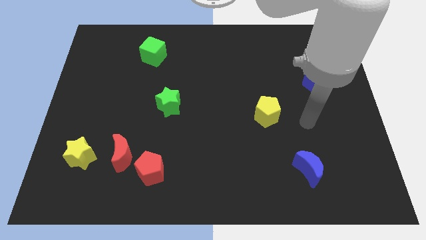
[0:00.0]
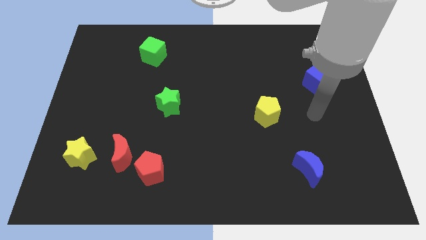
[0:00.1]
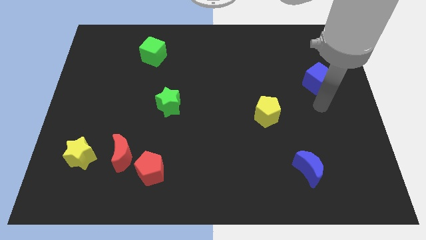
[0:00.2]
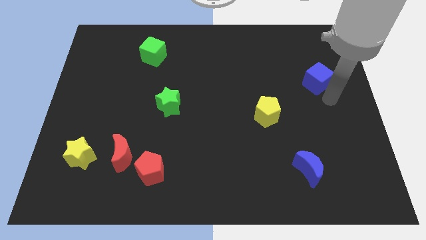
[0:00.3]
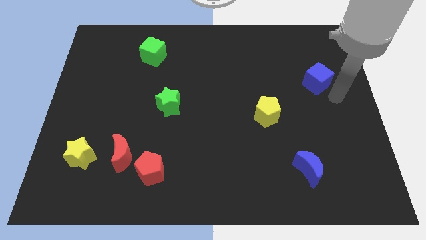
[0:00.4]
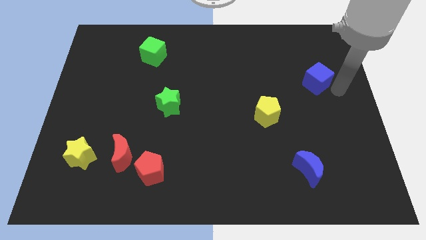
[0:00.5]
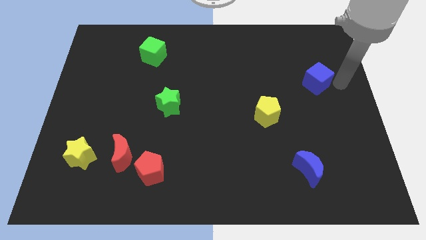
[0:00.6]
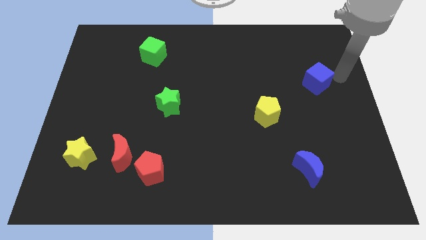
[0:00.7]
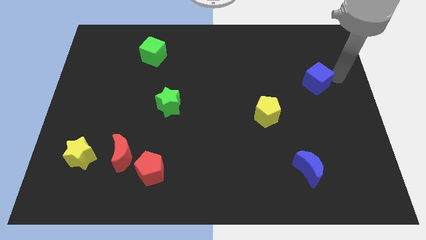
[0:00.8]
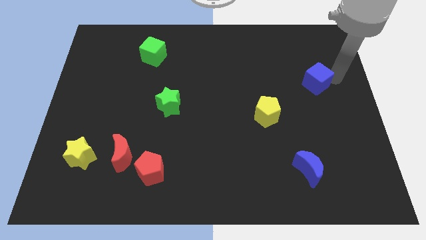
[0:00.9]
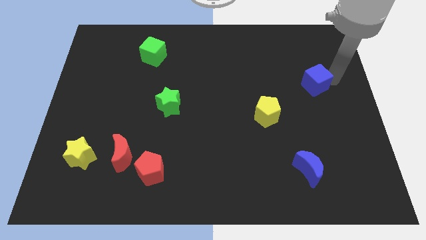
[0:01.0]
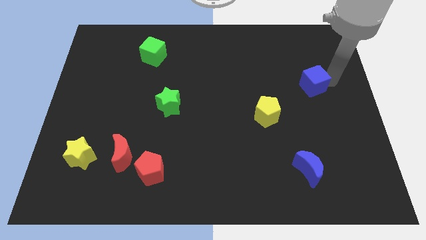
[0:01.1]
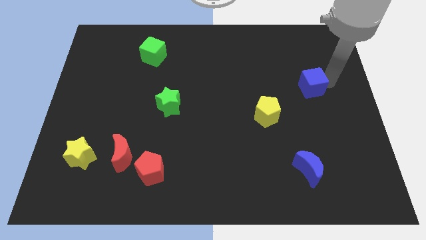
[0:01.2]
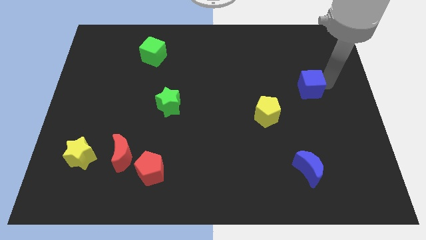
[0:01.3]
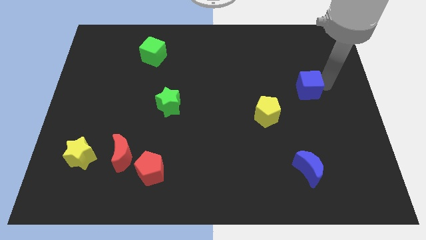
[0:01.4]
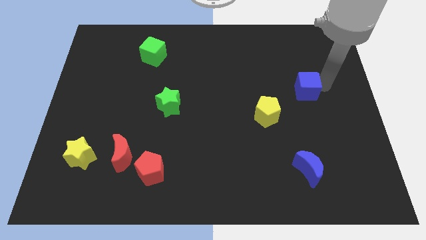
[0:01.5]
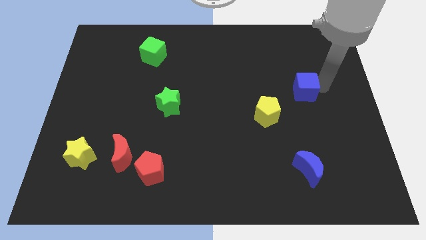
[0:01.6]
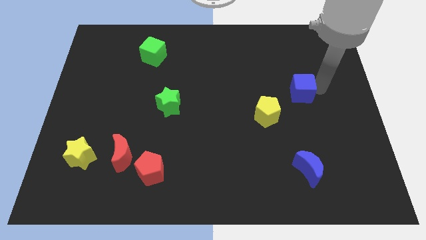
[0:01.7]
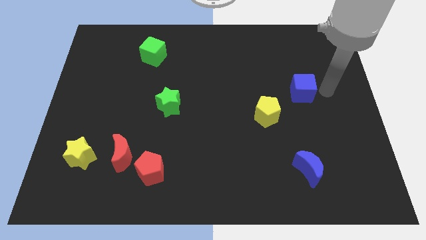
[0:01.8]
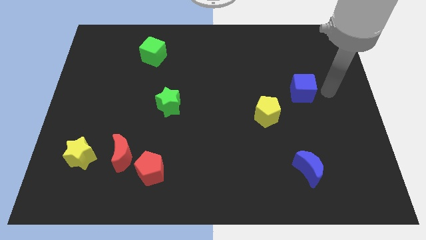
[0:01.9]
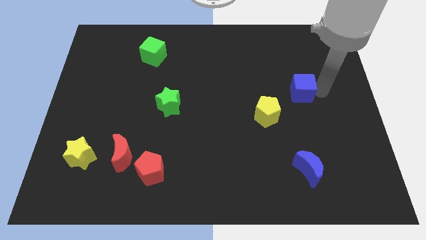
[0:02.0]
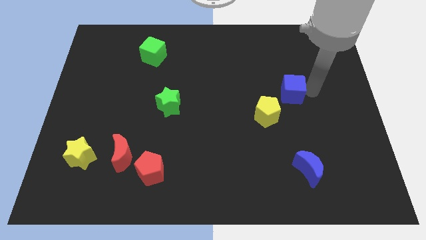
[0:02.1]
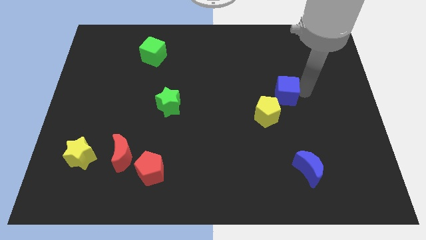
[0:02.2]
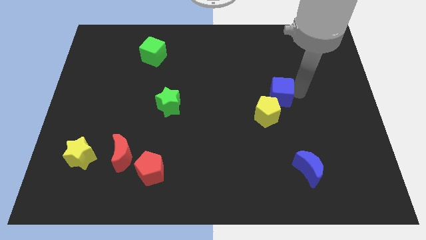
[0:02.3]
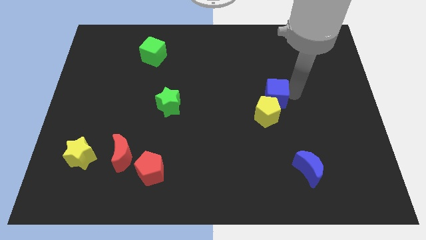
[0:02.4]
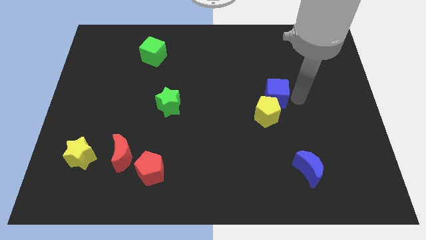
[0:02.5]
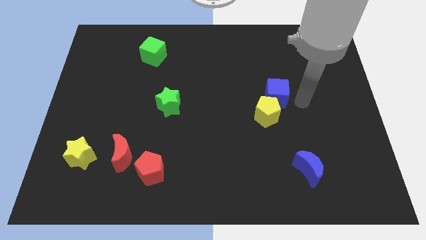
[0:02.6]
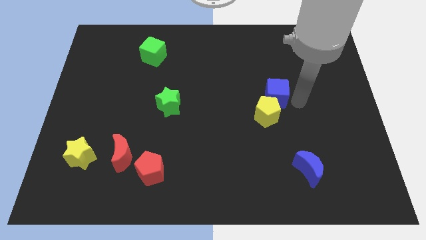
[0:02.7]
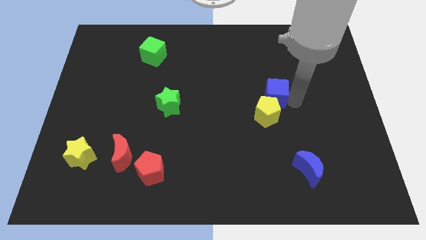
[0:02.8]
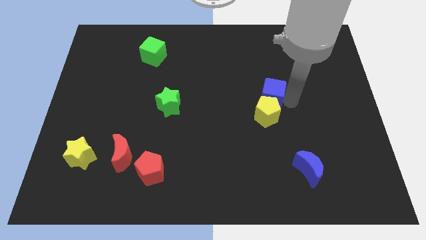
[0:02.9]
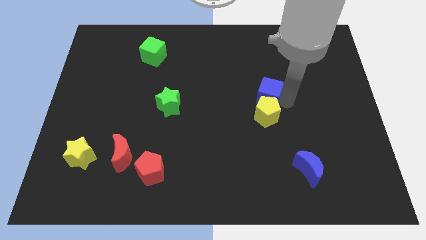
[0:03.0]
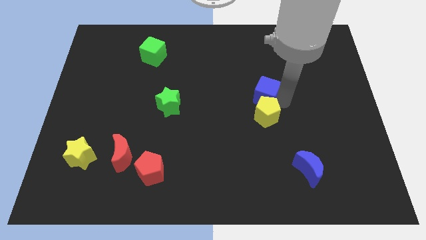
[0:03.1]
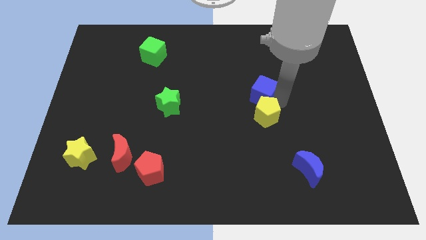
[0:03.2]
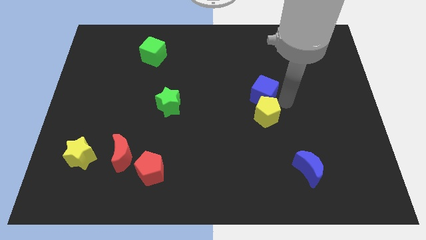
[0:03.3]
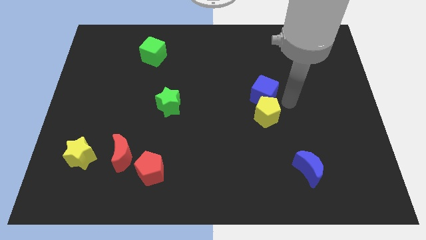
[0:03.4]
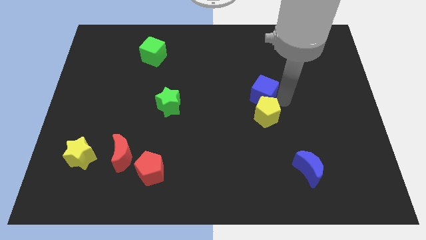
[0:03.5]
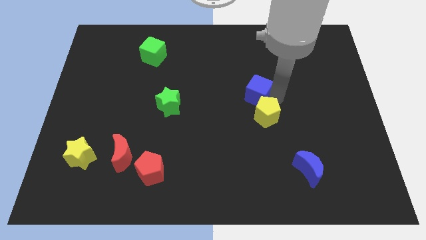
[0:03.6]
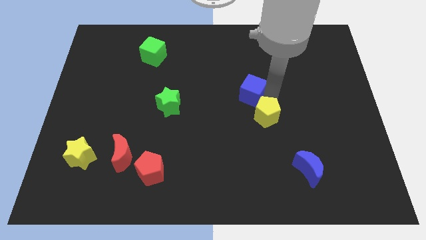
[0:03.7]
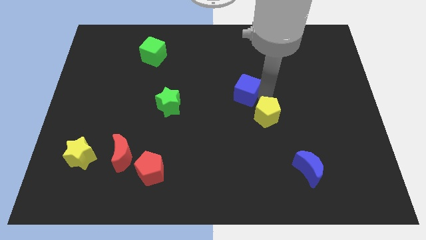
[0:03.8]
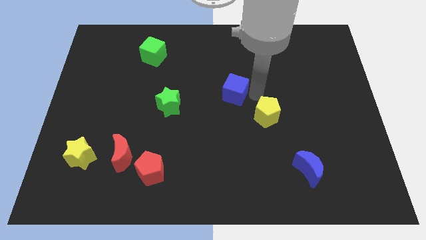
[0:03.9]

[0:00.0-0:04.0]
push the blue cube left

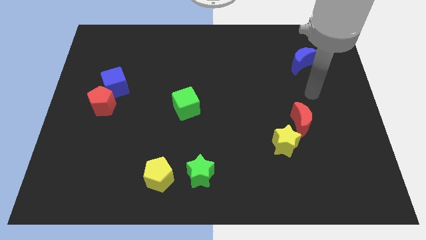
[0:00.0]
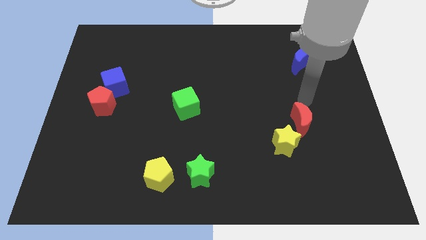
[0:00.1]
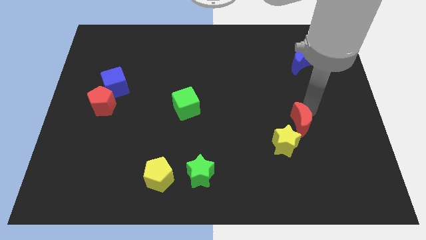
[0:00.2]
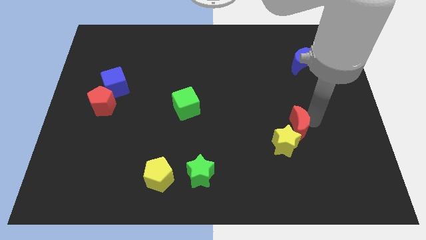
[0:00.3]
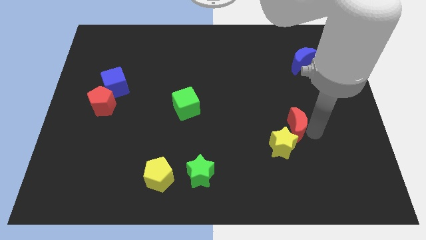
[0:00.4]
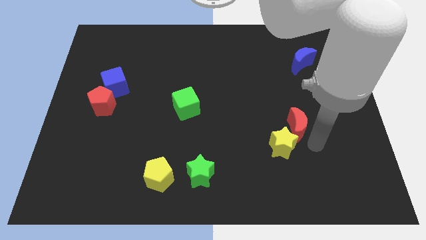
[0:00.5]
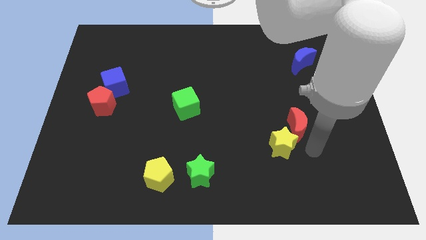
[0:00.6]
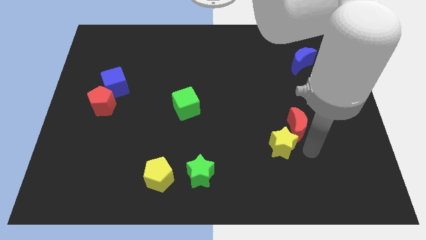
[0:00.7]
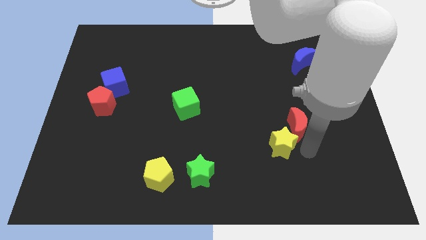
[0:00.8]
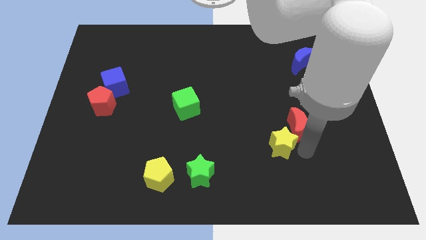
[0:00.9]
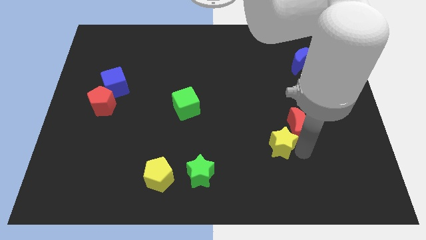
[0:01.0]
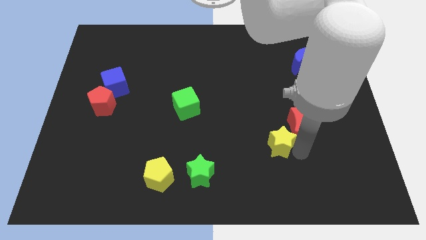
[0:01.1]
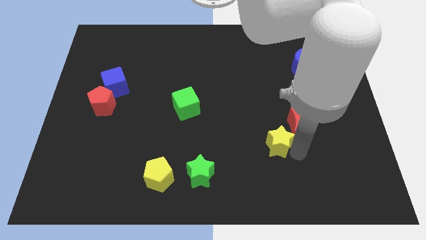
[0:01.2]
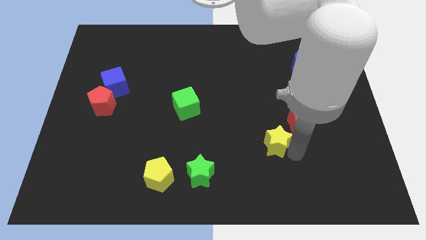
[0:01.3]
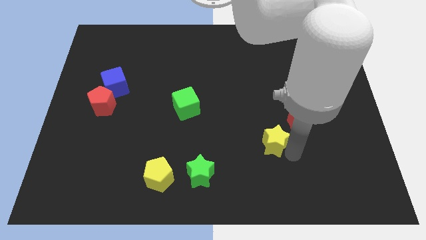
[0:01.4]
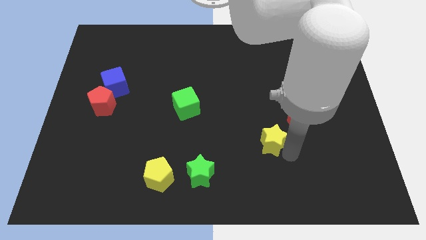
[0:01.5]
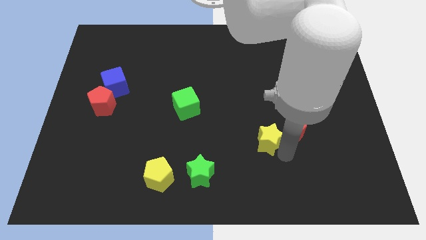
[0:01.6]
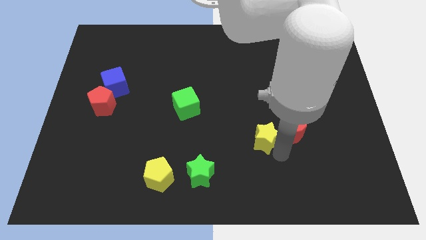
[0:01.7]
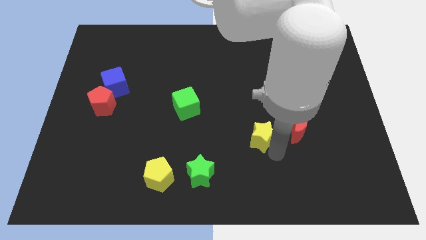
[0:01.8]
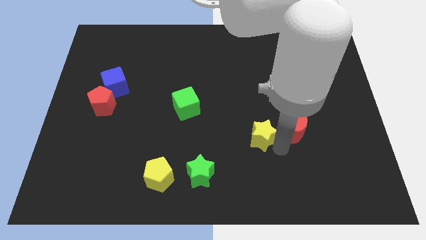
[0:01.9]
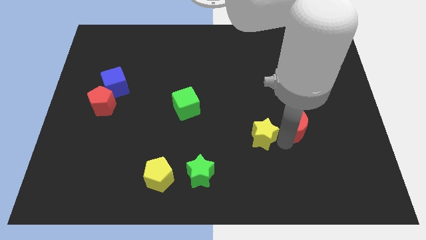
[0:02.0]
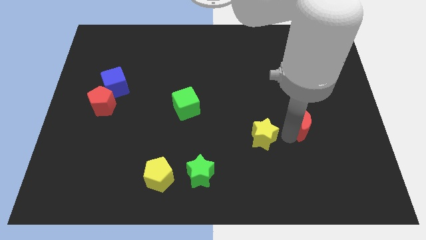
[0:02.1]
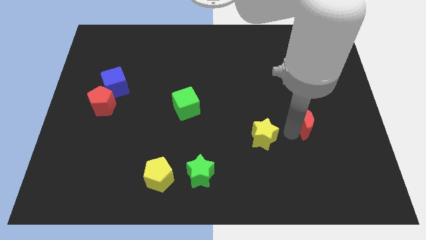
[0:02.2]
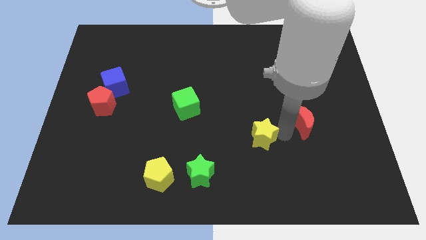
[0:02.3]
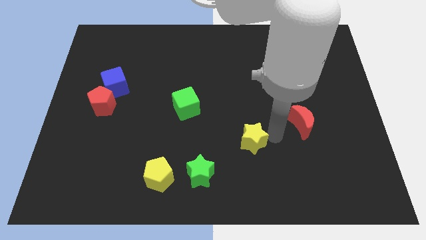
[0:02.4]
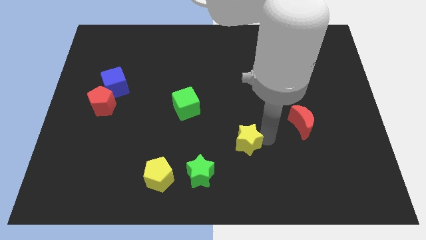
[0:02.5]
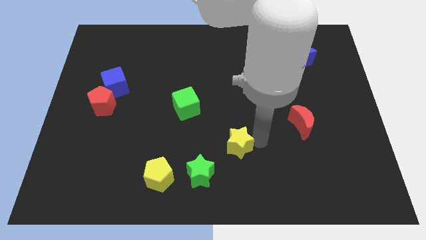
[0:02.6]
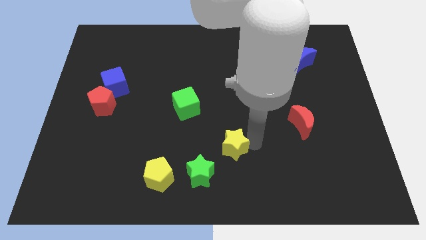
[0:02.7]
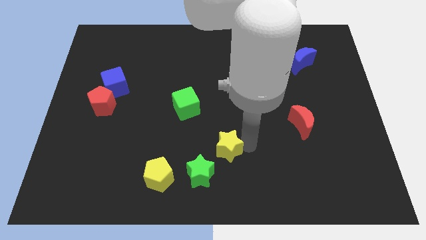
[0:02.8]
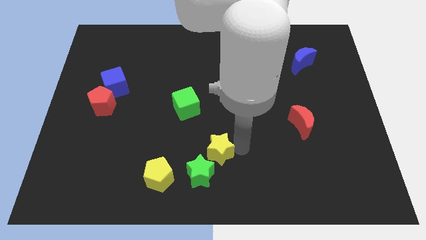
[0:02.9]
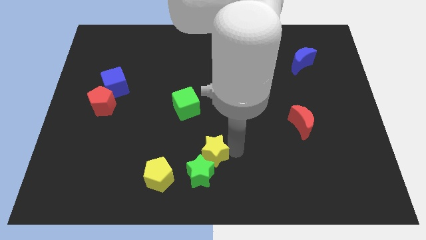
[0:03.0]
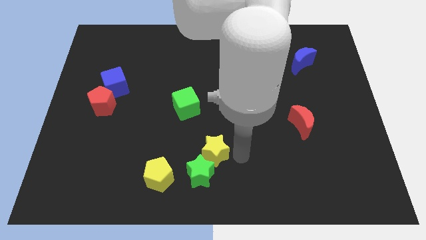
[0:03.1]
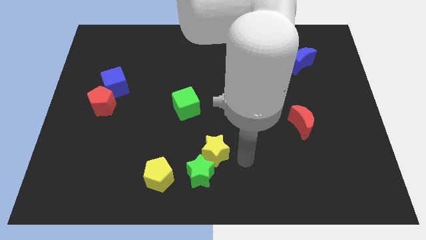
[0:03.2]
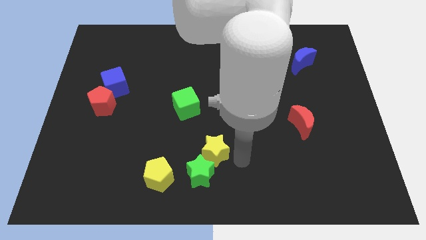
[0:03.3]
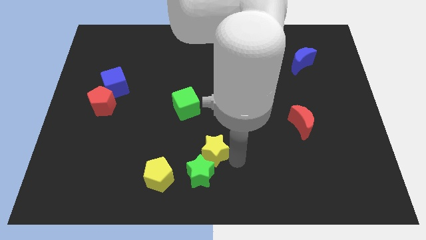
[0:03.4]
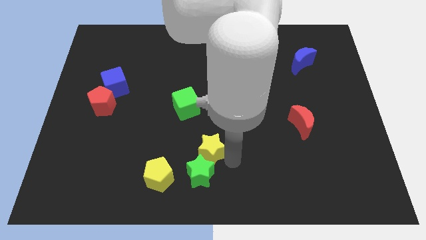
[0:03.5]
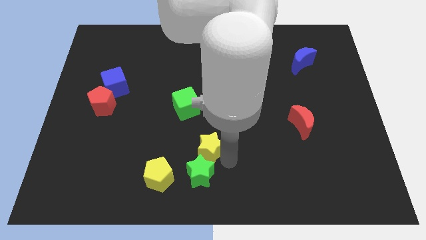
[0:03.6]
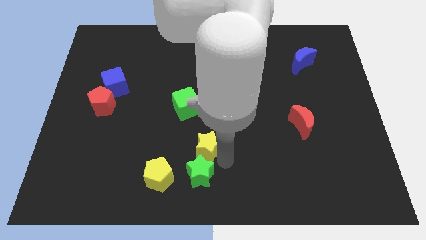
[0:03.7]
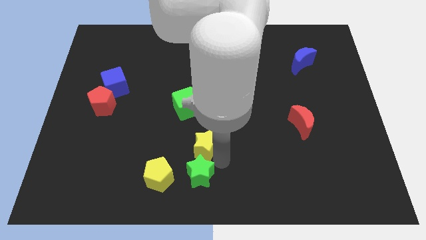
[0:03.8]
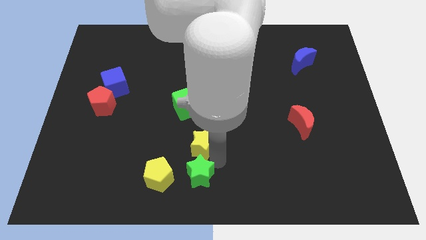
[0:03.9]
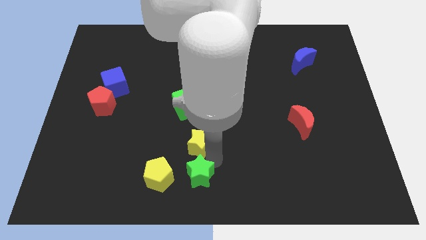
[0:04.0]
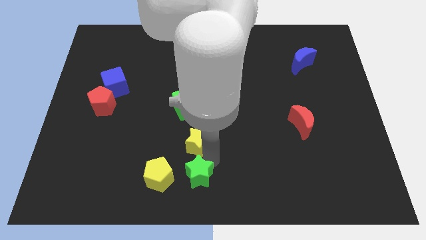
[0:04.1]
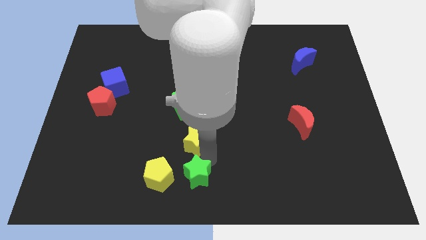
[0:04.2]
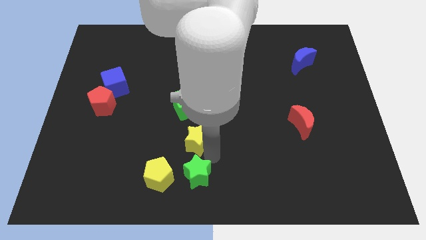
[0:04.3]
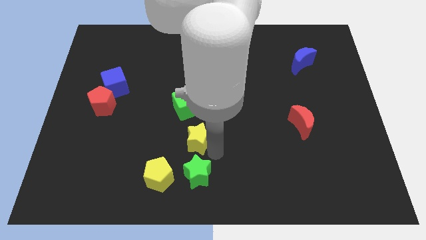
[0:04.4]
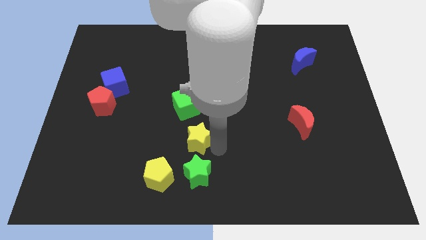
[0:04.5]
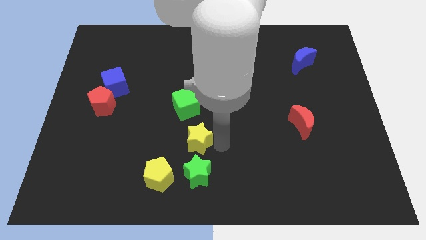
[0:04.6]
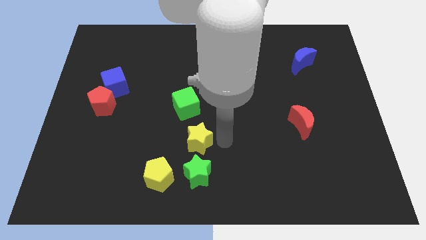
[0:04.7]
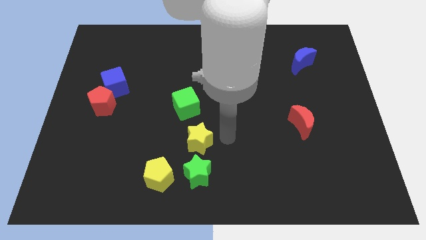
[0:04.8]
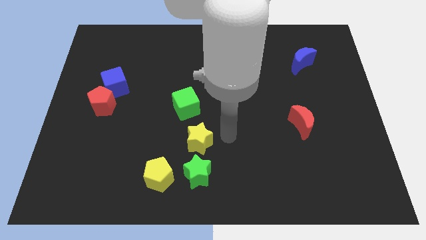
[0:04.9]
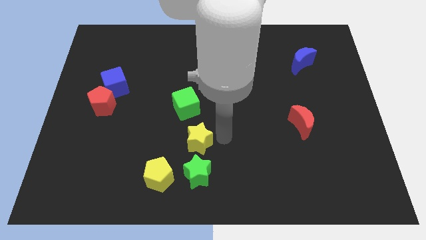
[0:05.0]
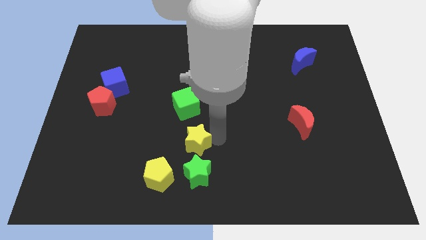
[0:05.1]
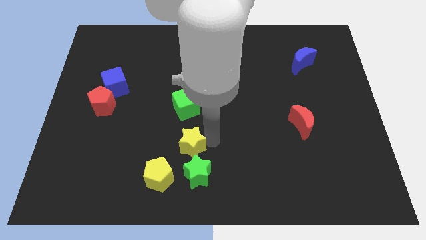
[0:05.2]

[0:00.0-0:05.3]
push the yellow star to the left
